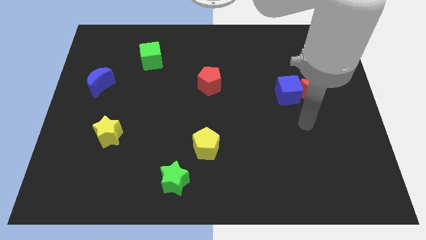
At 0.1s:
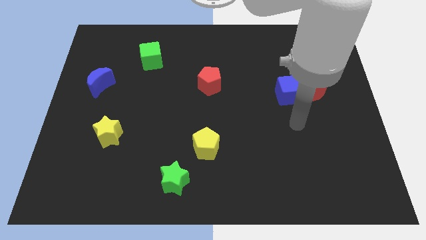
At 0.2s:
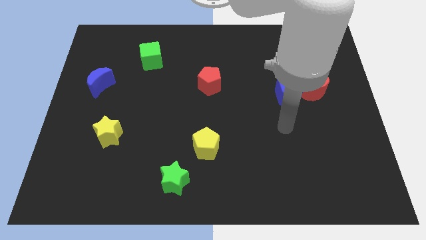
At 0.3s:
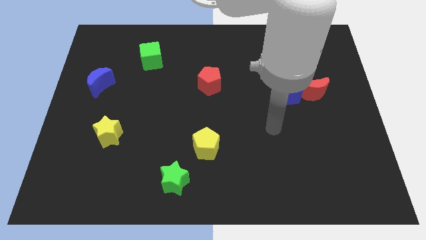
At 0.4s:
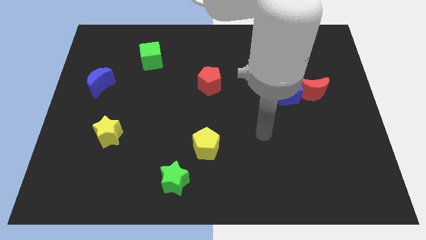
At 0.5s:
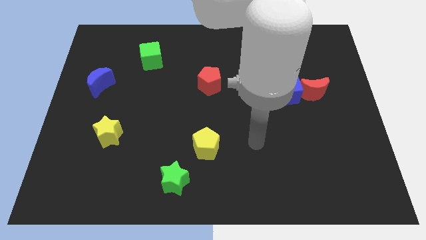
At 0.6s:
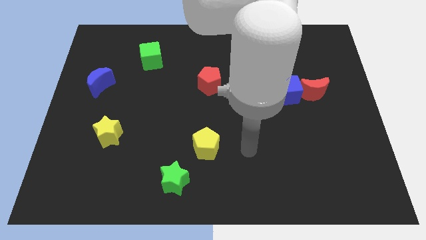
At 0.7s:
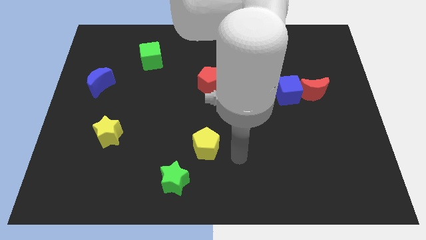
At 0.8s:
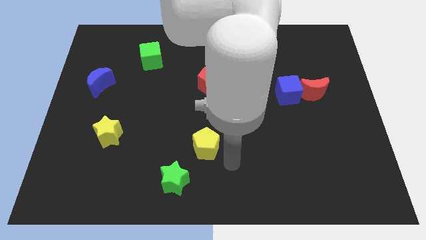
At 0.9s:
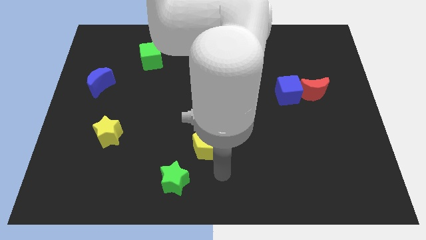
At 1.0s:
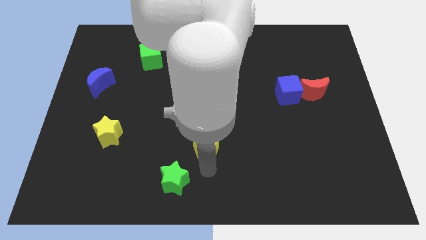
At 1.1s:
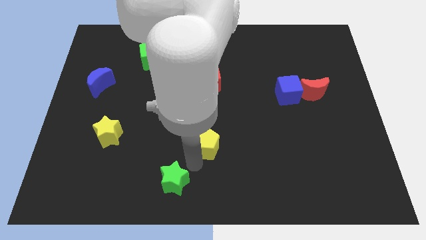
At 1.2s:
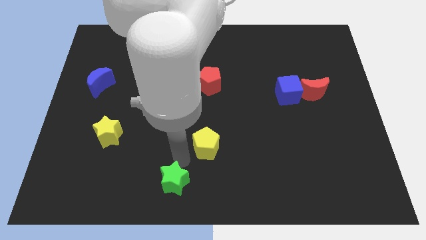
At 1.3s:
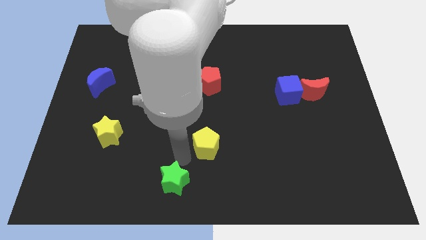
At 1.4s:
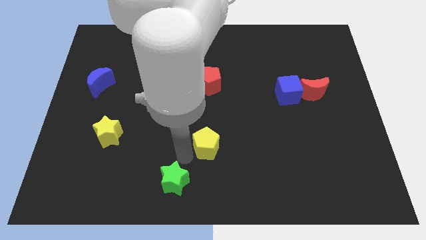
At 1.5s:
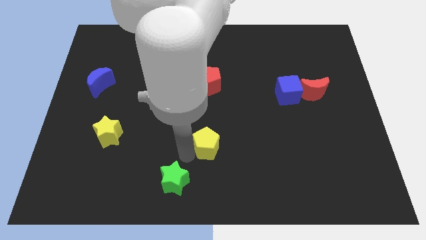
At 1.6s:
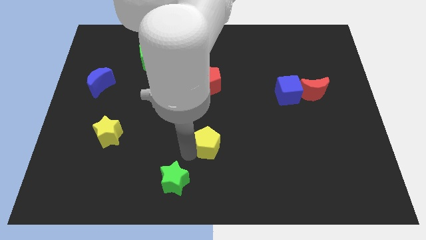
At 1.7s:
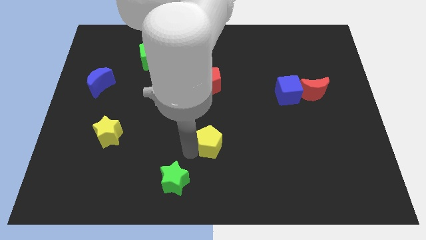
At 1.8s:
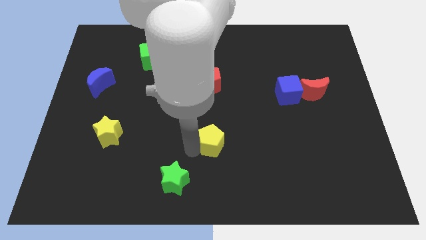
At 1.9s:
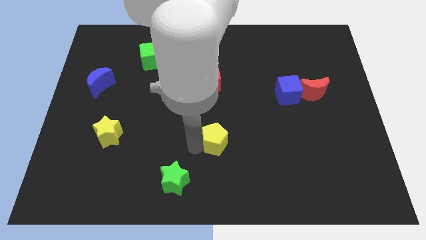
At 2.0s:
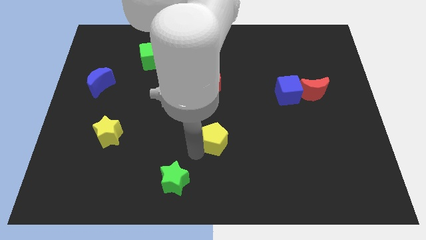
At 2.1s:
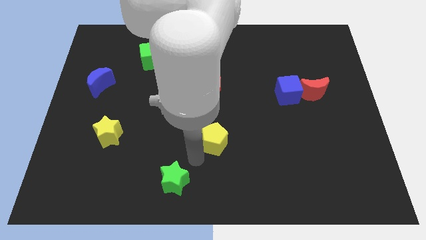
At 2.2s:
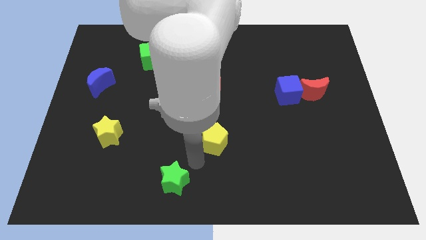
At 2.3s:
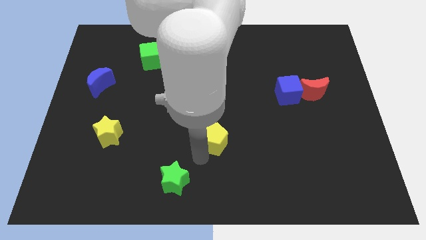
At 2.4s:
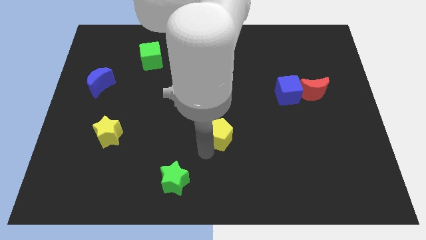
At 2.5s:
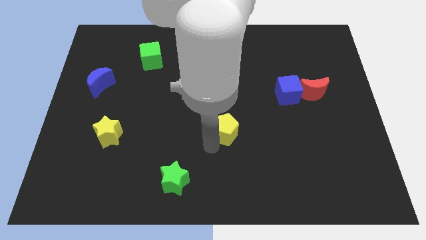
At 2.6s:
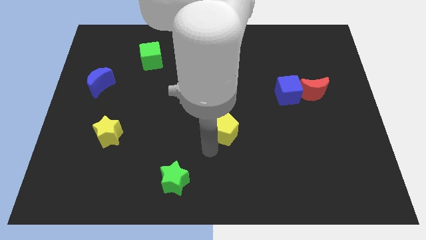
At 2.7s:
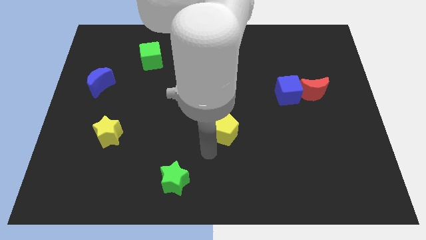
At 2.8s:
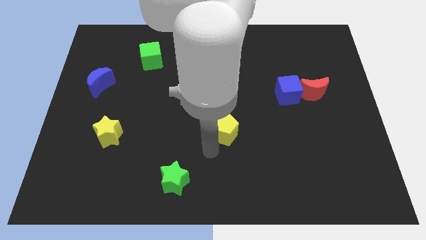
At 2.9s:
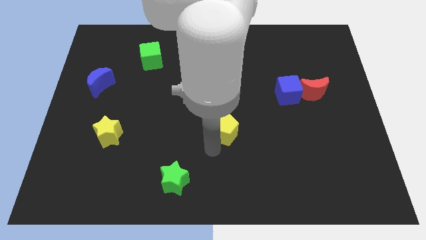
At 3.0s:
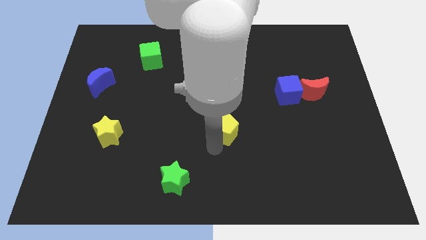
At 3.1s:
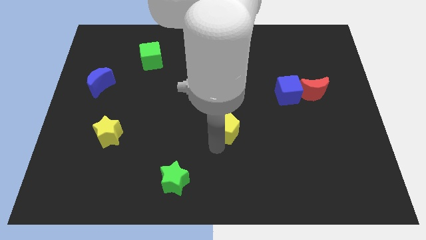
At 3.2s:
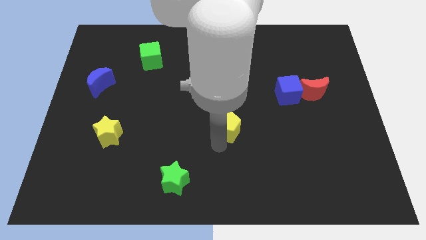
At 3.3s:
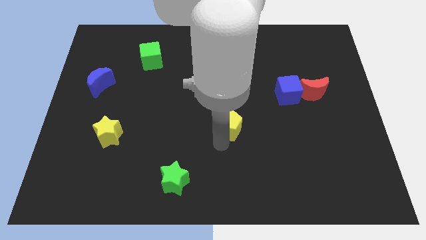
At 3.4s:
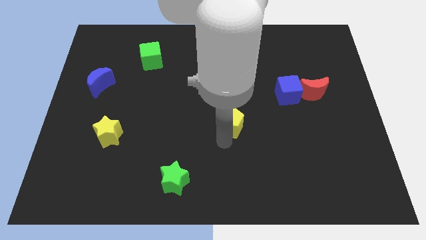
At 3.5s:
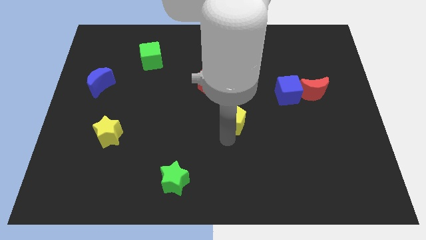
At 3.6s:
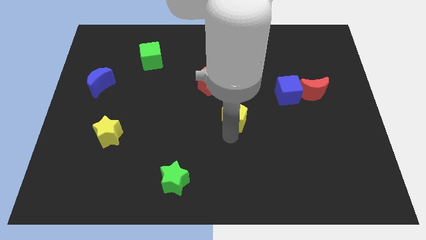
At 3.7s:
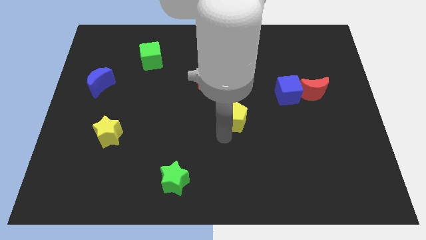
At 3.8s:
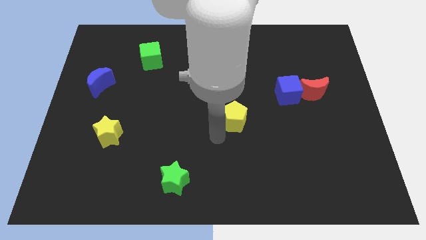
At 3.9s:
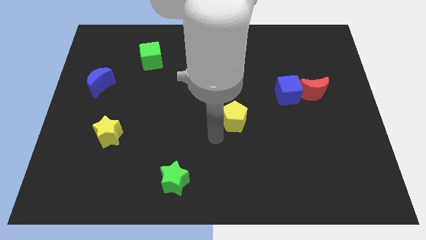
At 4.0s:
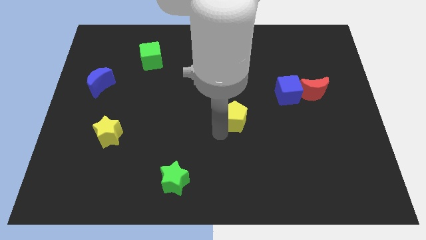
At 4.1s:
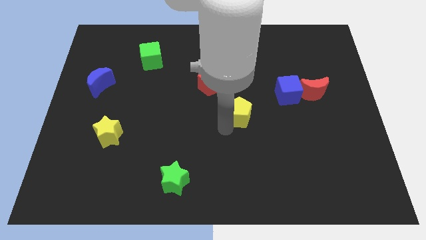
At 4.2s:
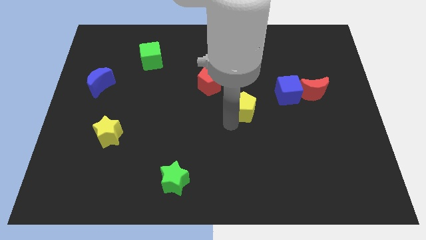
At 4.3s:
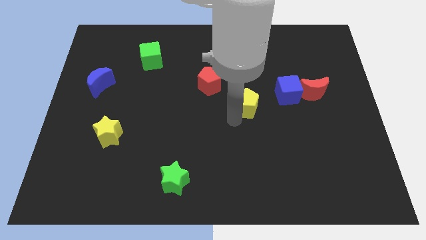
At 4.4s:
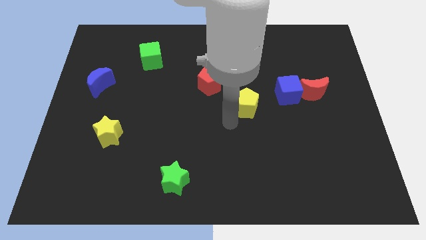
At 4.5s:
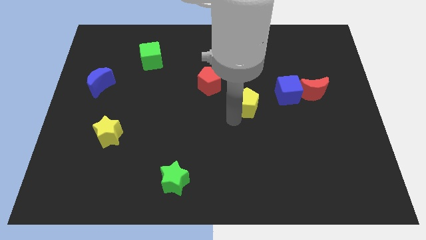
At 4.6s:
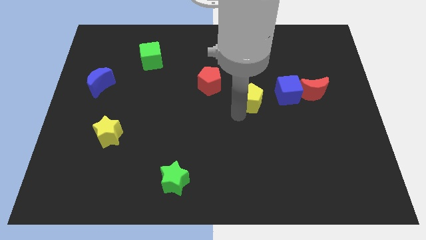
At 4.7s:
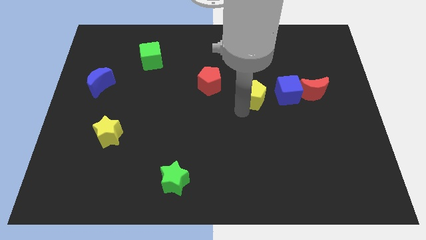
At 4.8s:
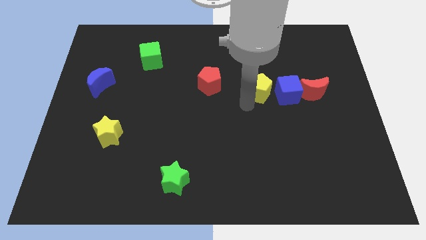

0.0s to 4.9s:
push the yellow pentagon upwards and to the right

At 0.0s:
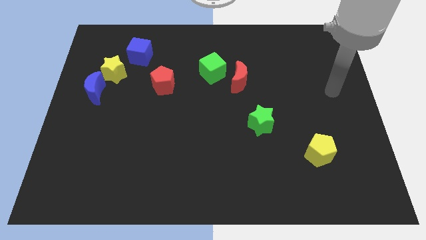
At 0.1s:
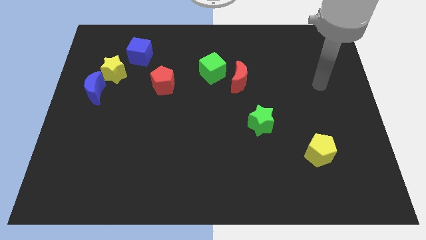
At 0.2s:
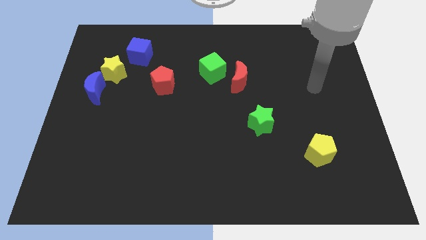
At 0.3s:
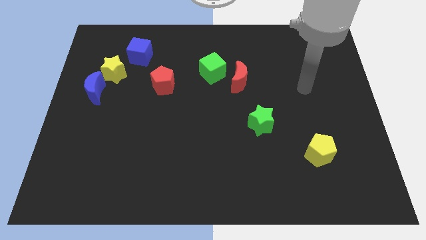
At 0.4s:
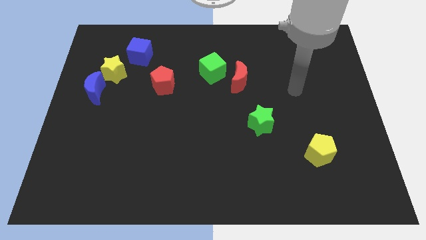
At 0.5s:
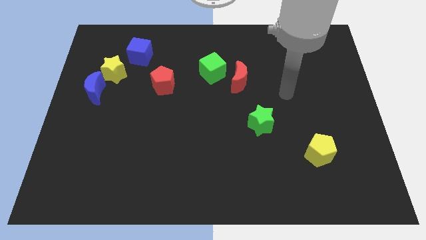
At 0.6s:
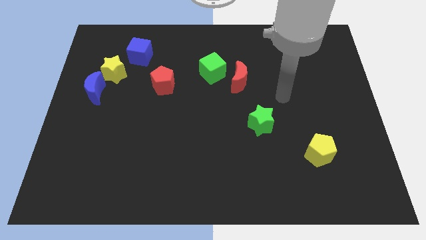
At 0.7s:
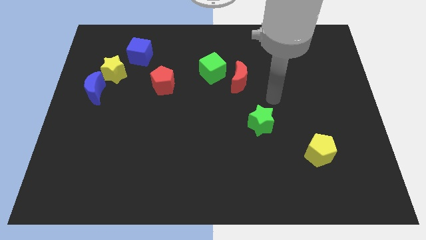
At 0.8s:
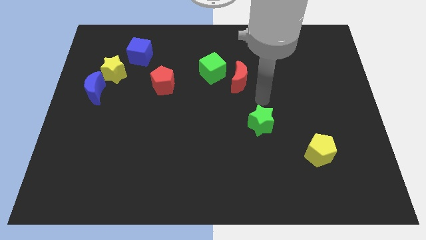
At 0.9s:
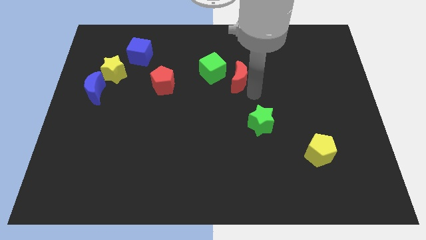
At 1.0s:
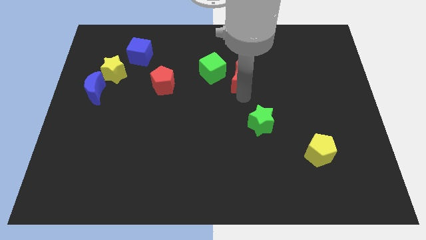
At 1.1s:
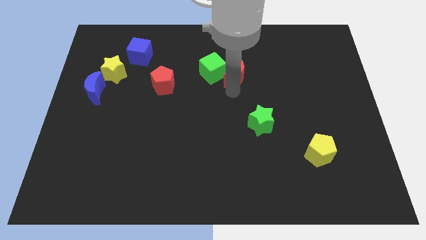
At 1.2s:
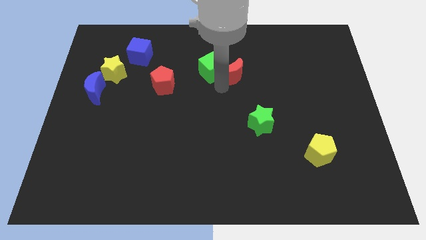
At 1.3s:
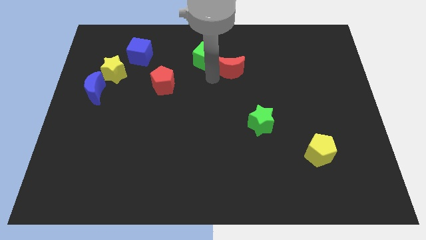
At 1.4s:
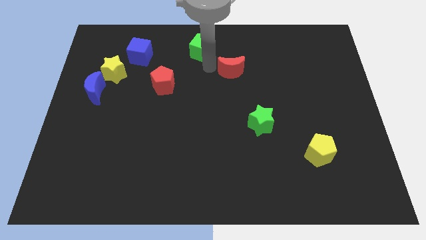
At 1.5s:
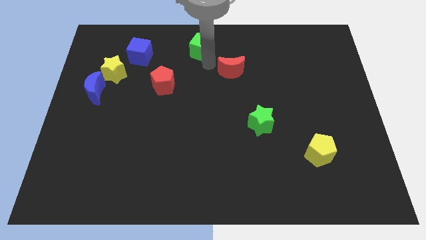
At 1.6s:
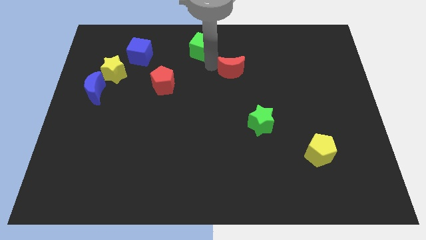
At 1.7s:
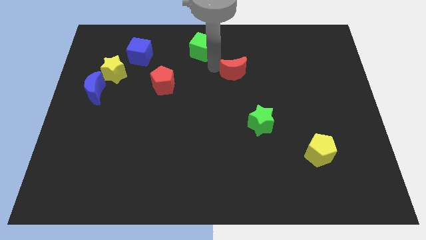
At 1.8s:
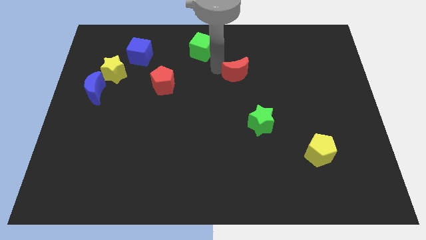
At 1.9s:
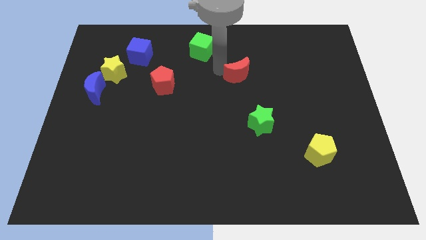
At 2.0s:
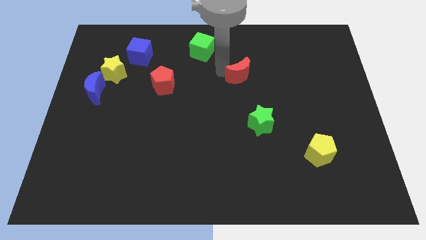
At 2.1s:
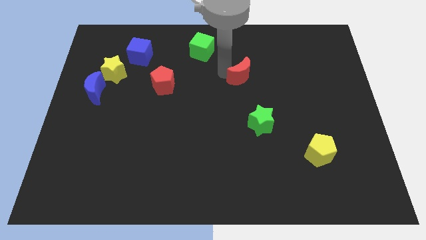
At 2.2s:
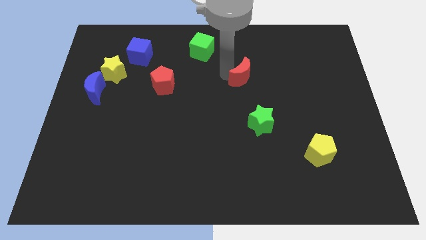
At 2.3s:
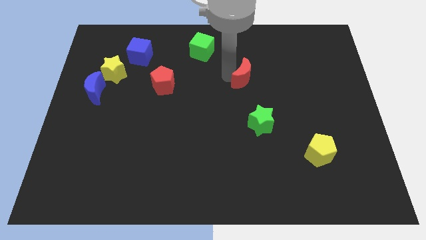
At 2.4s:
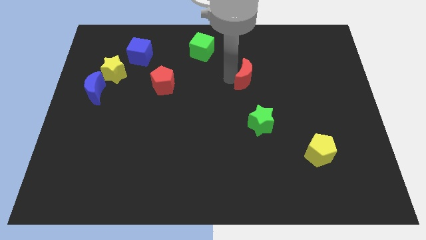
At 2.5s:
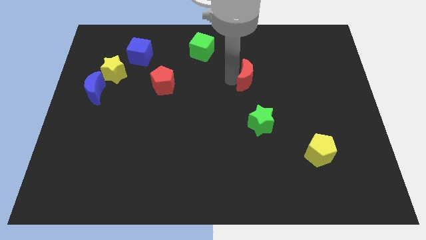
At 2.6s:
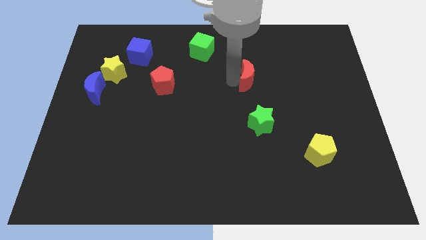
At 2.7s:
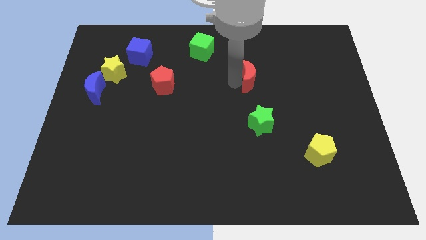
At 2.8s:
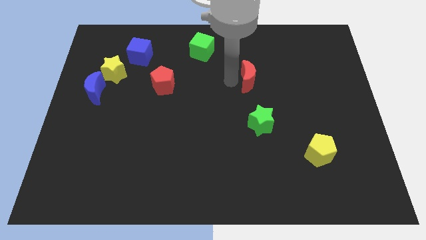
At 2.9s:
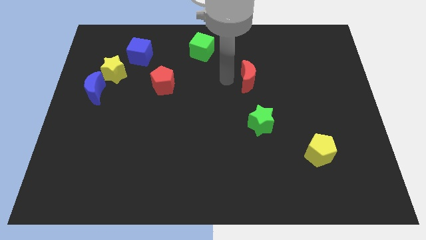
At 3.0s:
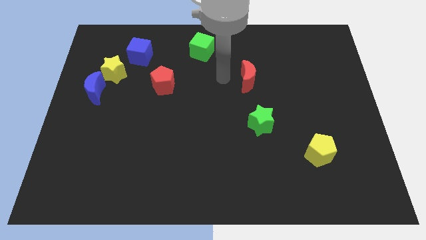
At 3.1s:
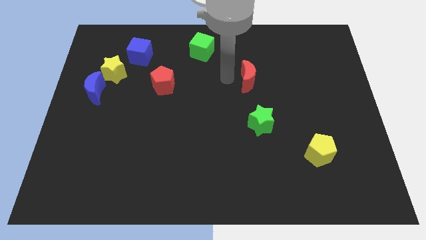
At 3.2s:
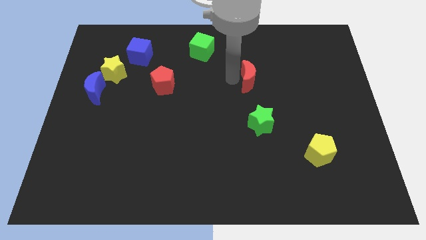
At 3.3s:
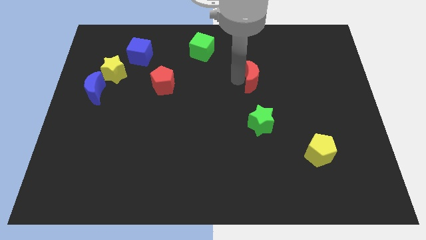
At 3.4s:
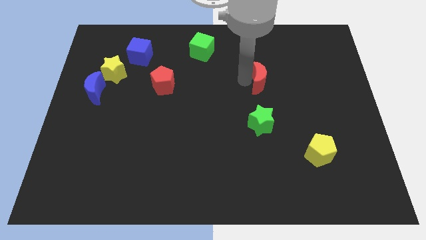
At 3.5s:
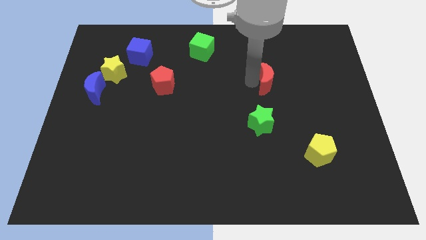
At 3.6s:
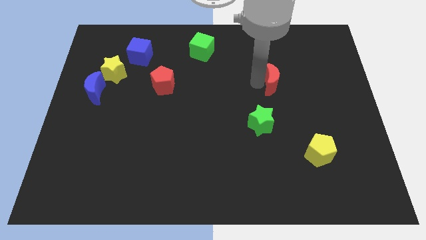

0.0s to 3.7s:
slightly push the red moon to the right
